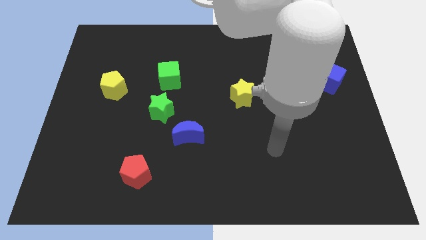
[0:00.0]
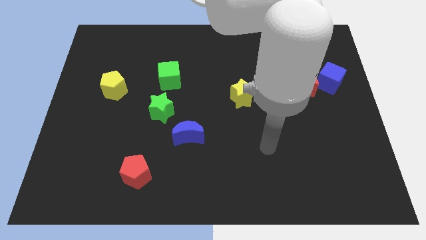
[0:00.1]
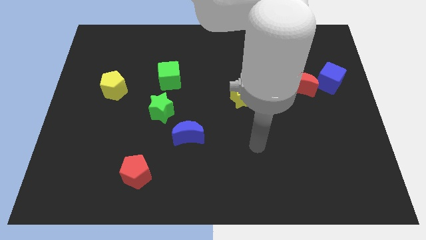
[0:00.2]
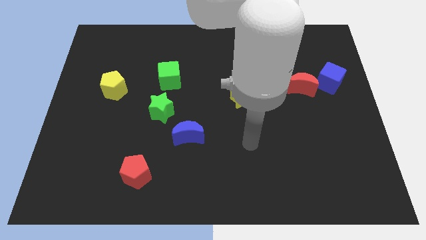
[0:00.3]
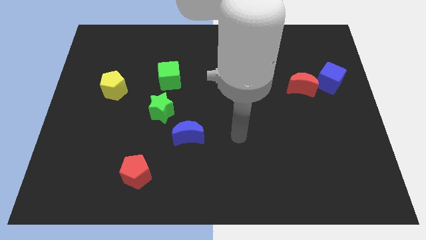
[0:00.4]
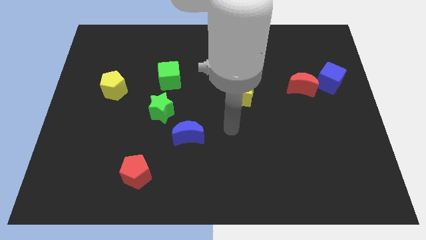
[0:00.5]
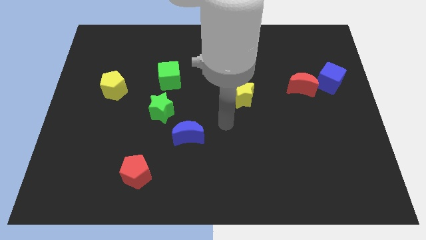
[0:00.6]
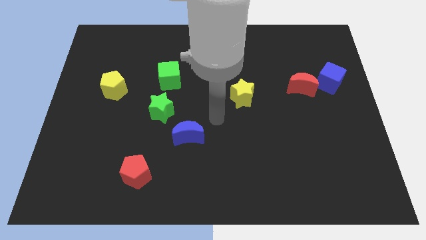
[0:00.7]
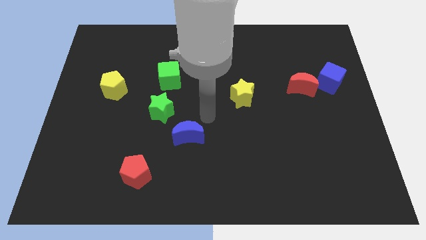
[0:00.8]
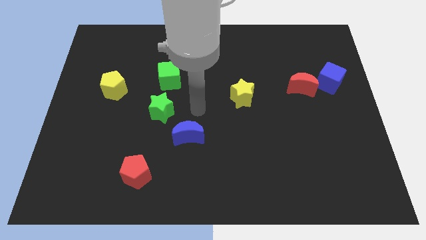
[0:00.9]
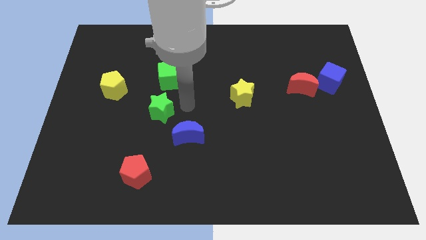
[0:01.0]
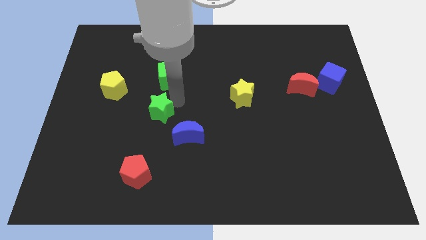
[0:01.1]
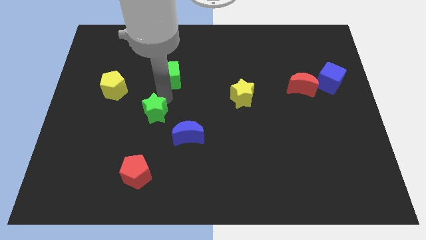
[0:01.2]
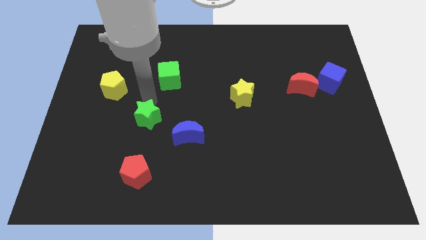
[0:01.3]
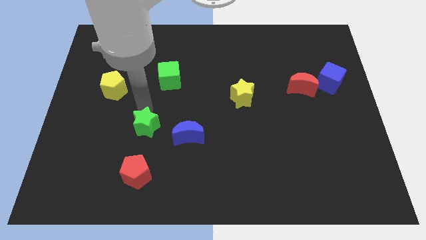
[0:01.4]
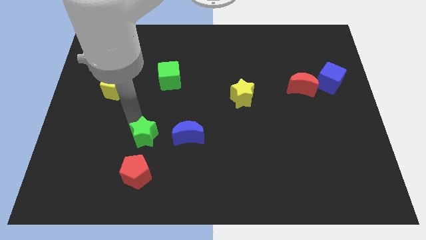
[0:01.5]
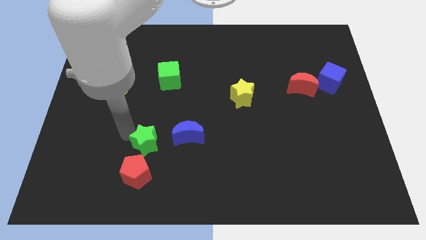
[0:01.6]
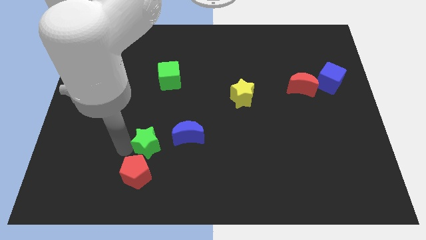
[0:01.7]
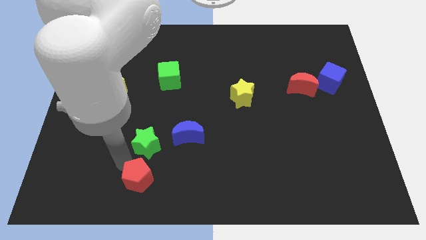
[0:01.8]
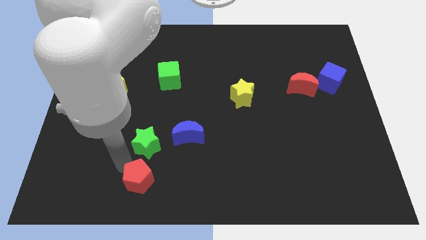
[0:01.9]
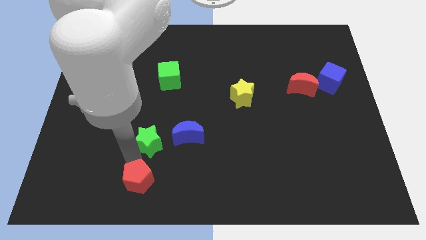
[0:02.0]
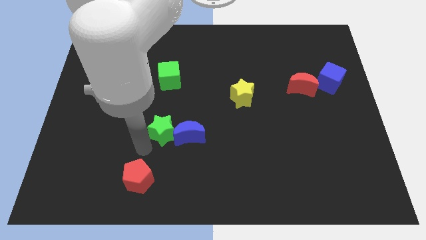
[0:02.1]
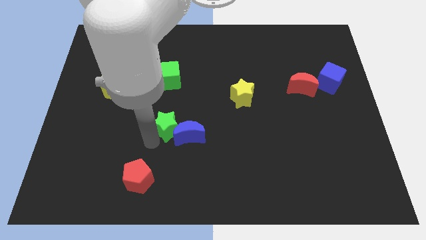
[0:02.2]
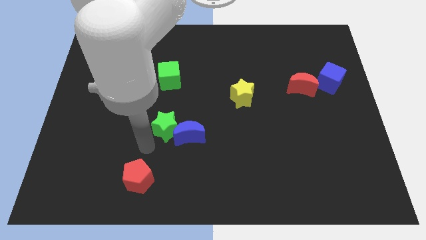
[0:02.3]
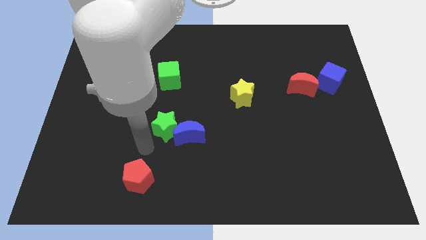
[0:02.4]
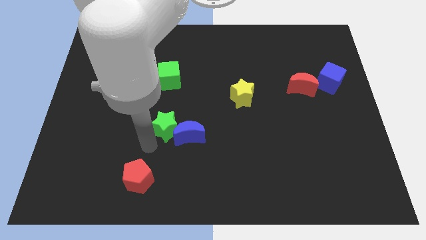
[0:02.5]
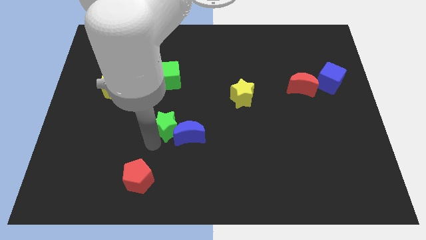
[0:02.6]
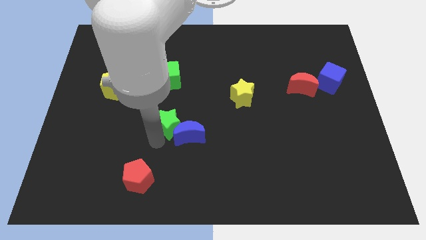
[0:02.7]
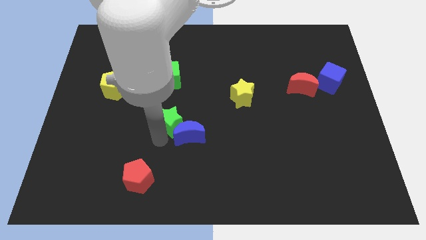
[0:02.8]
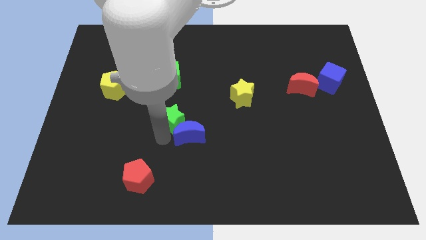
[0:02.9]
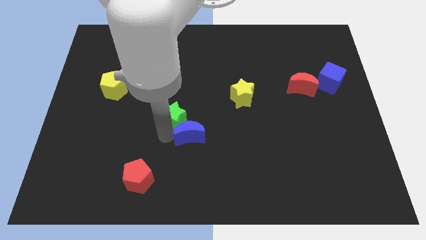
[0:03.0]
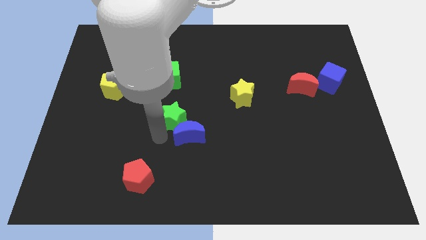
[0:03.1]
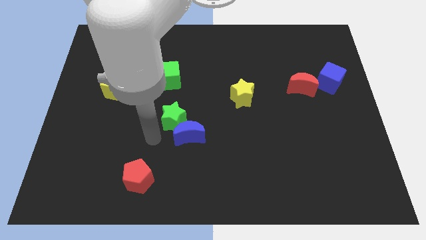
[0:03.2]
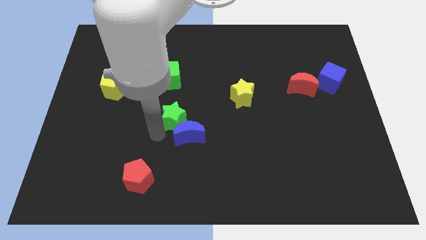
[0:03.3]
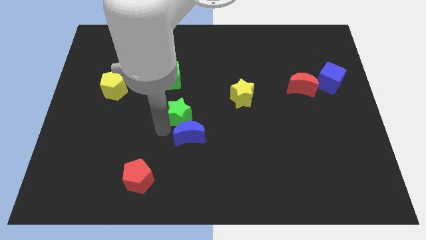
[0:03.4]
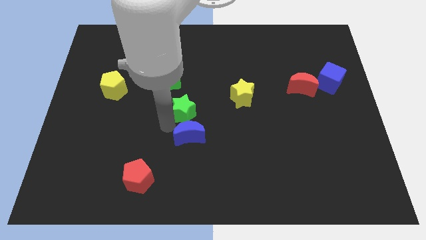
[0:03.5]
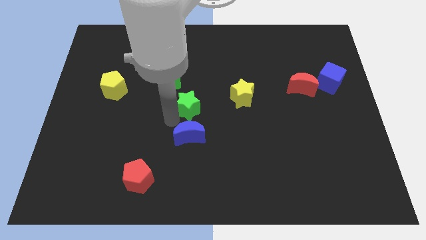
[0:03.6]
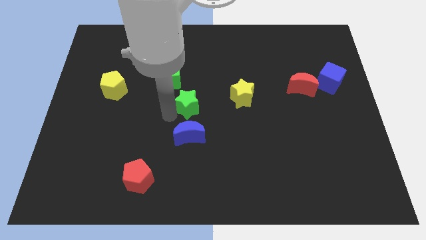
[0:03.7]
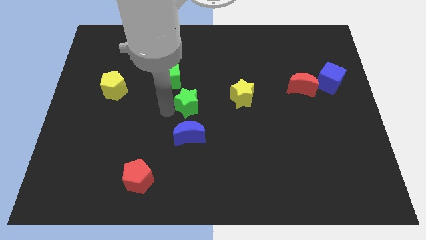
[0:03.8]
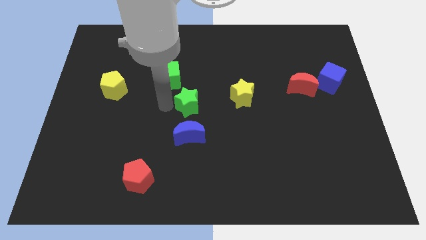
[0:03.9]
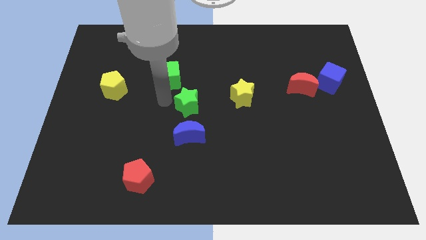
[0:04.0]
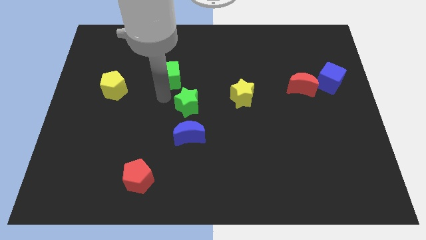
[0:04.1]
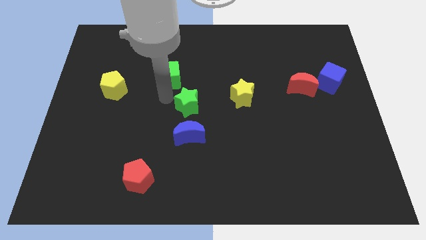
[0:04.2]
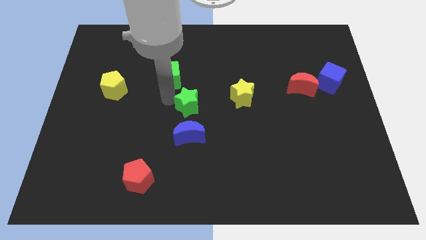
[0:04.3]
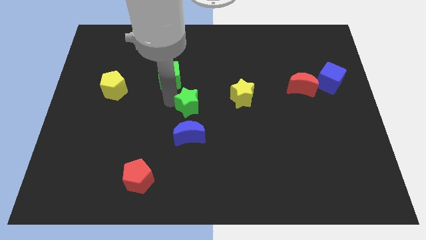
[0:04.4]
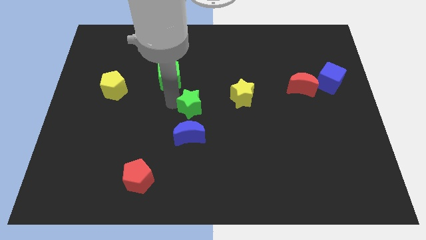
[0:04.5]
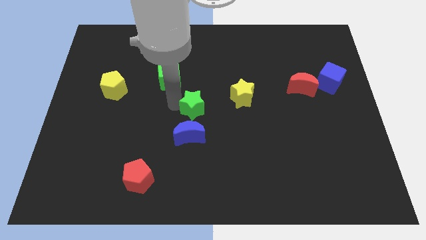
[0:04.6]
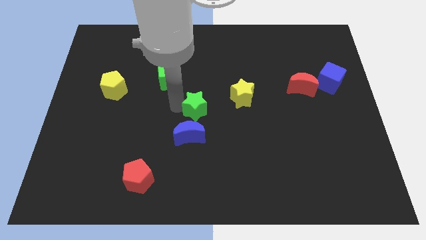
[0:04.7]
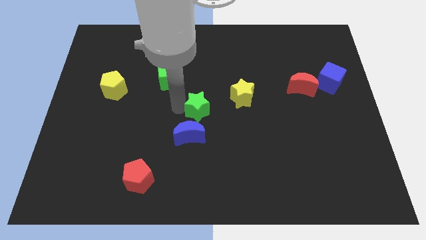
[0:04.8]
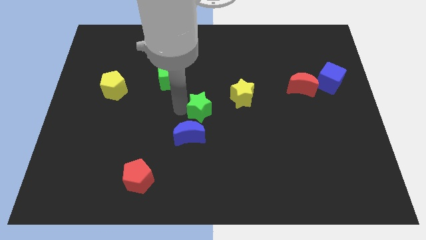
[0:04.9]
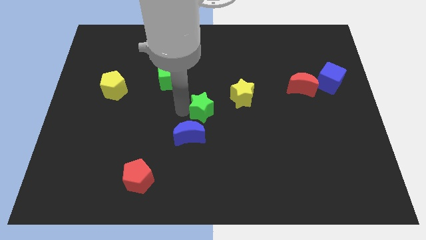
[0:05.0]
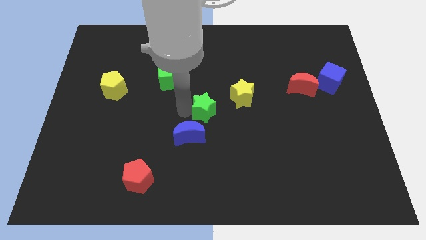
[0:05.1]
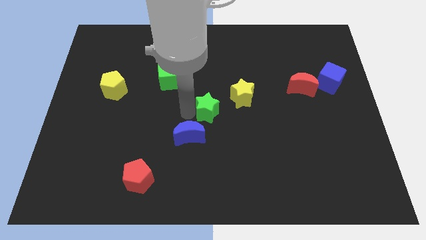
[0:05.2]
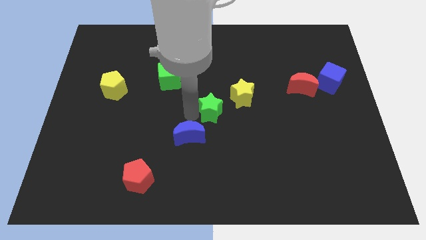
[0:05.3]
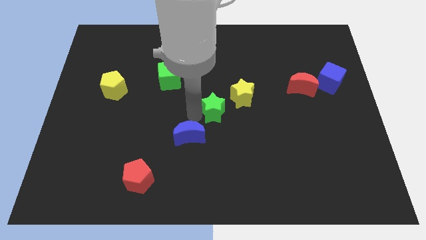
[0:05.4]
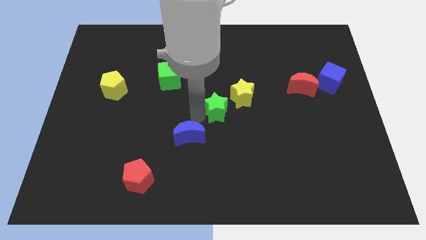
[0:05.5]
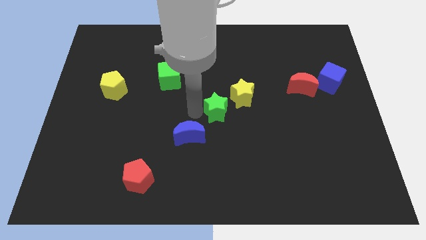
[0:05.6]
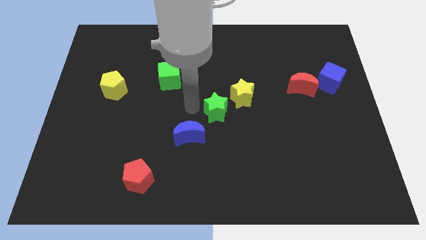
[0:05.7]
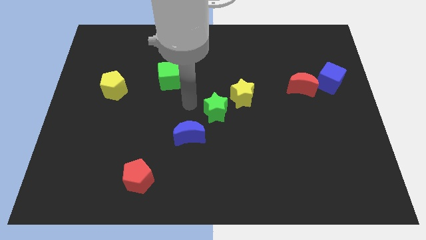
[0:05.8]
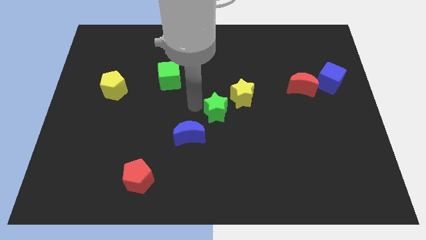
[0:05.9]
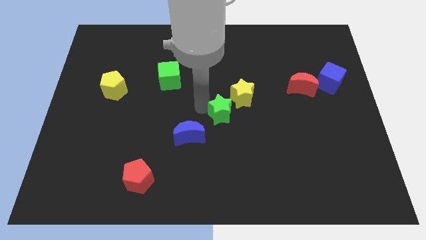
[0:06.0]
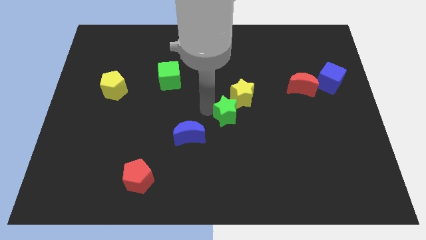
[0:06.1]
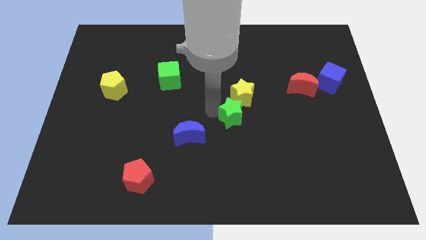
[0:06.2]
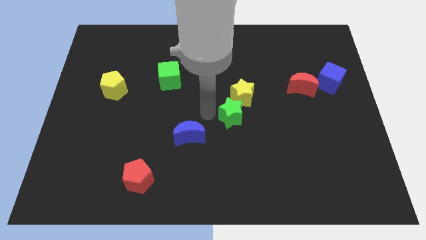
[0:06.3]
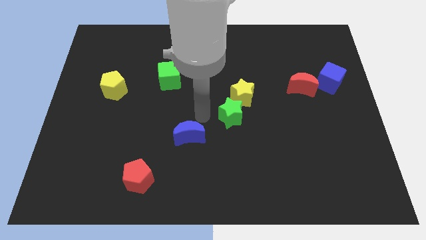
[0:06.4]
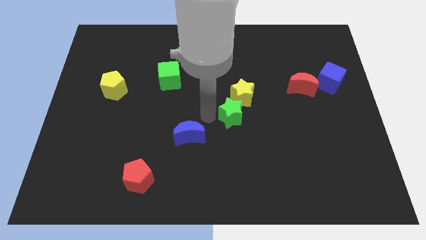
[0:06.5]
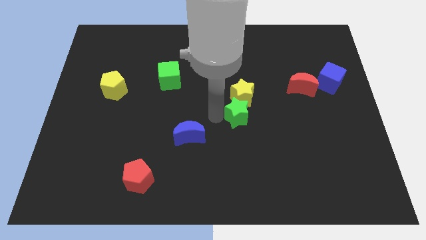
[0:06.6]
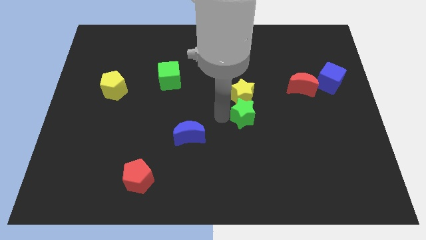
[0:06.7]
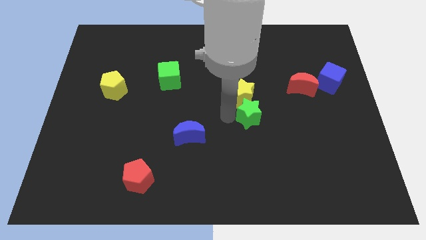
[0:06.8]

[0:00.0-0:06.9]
slide the green star to the right

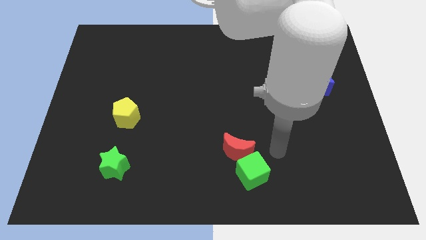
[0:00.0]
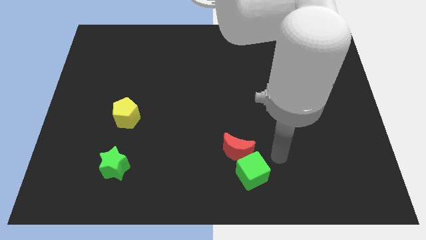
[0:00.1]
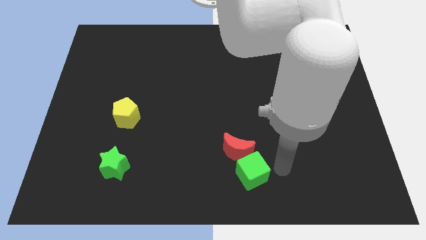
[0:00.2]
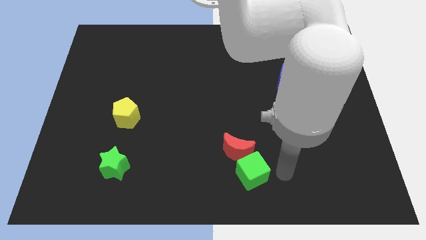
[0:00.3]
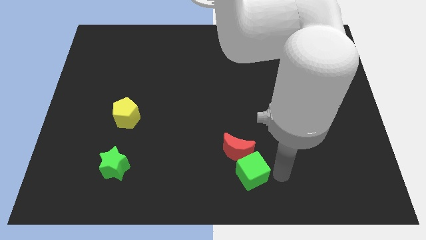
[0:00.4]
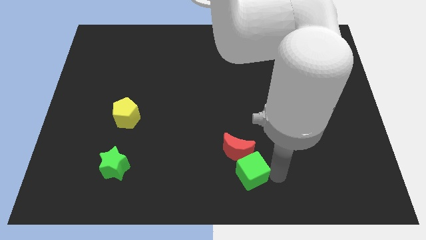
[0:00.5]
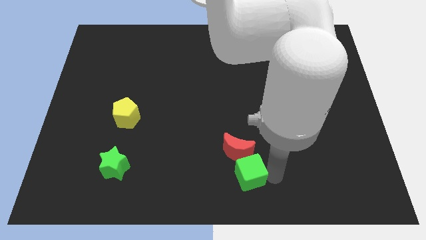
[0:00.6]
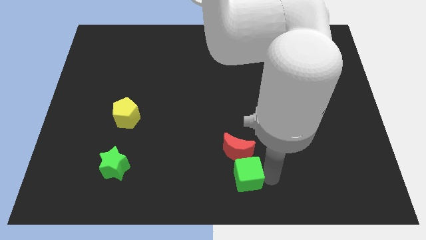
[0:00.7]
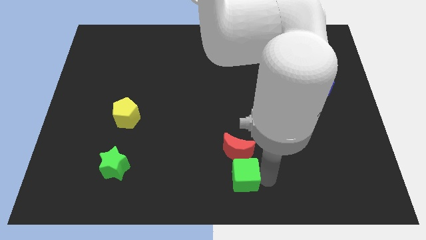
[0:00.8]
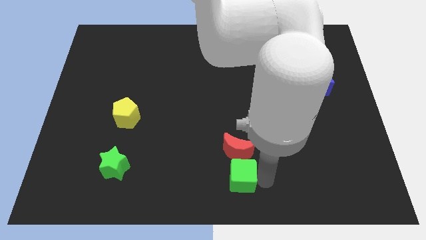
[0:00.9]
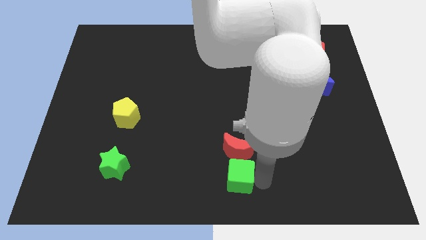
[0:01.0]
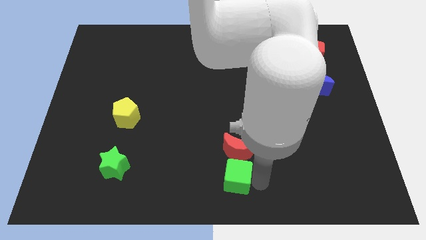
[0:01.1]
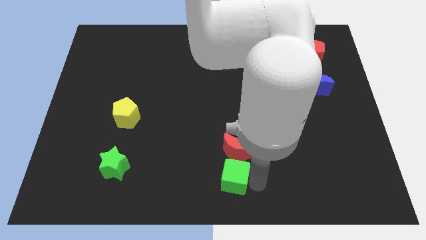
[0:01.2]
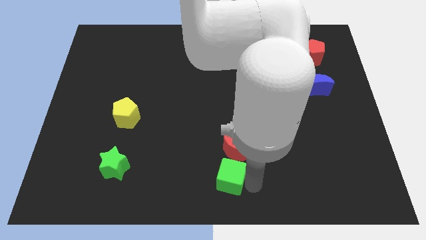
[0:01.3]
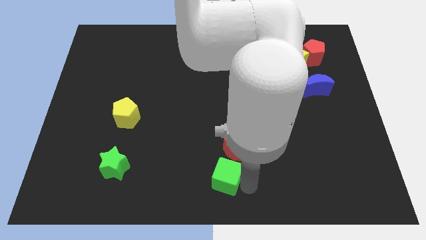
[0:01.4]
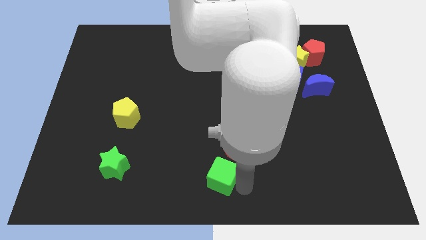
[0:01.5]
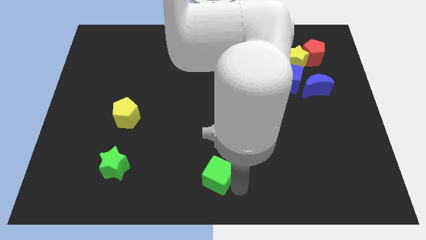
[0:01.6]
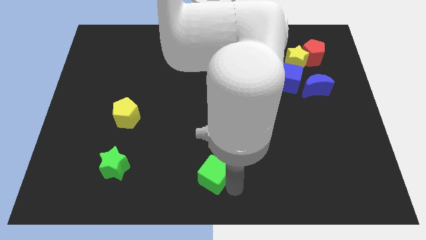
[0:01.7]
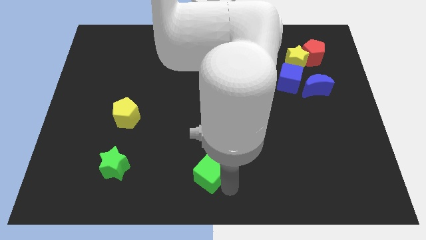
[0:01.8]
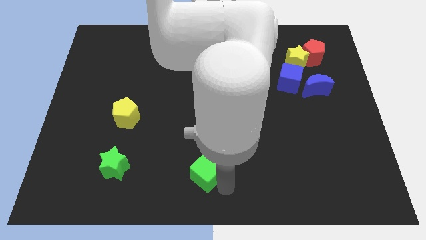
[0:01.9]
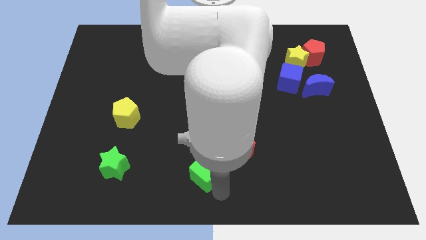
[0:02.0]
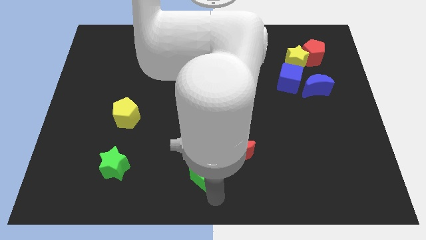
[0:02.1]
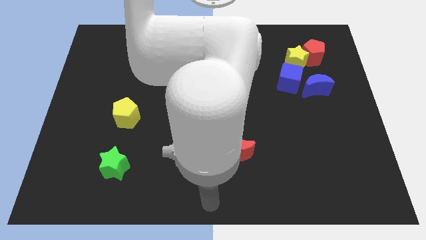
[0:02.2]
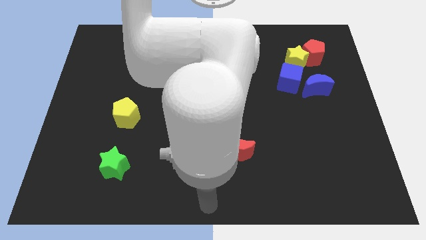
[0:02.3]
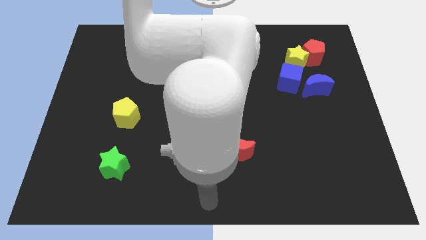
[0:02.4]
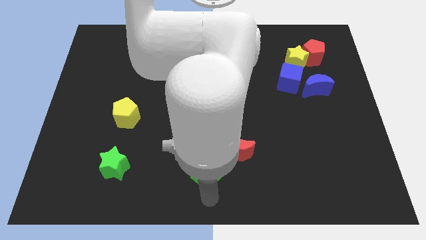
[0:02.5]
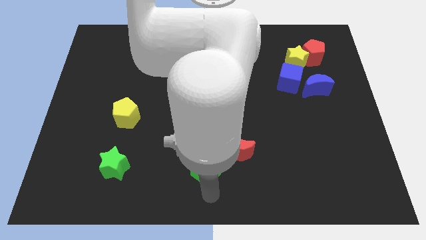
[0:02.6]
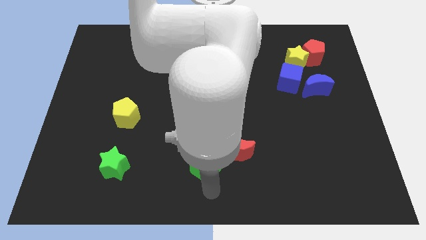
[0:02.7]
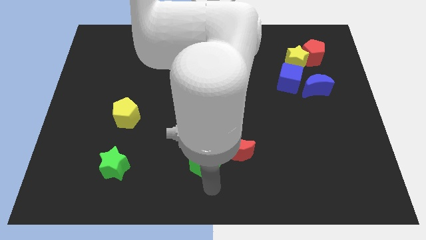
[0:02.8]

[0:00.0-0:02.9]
slide the green cube a little upwards and to the left diagonally
